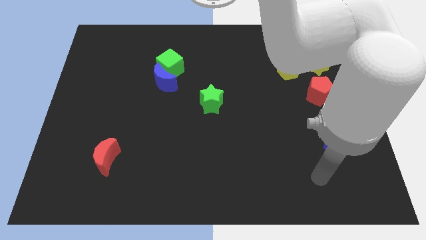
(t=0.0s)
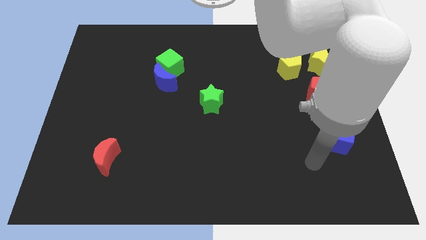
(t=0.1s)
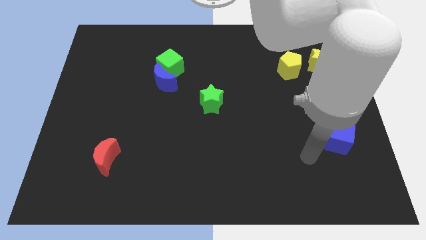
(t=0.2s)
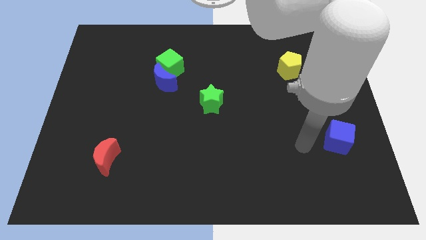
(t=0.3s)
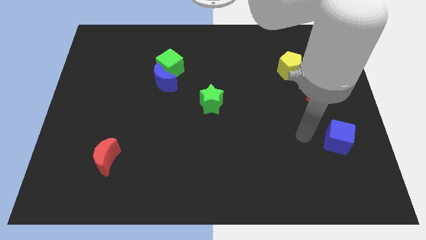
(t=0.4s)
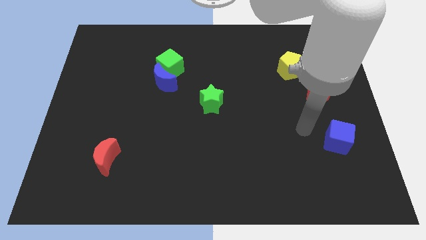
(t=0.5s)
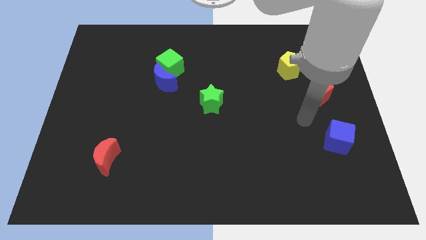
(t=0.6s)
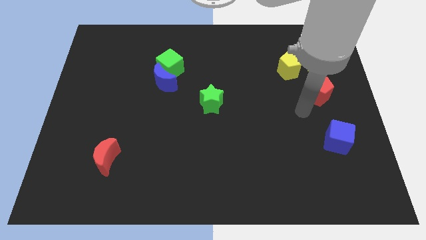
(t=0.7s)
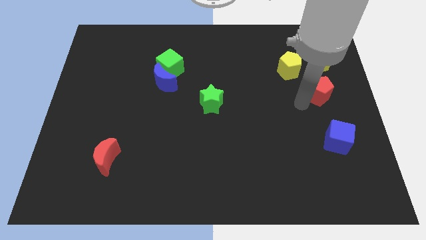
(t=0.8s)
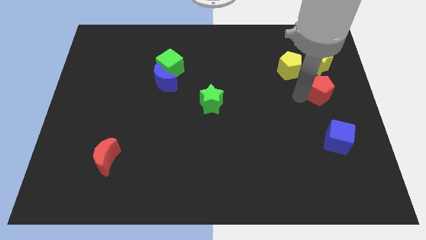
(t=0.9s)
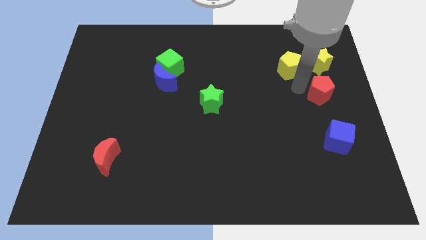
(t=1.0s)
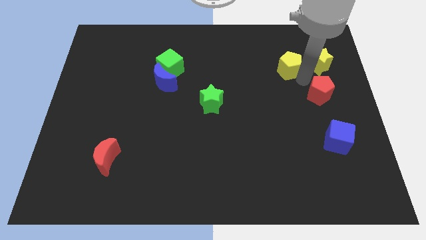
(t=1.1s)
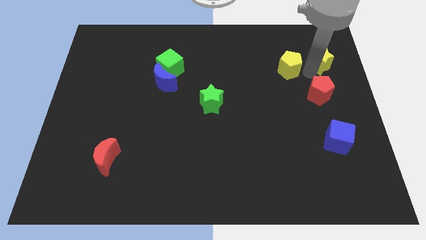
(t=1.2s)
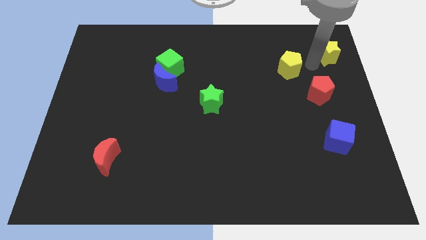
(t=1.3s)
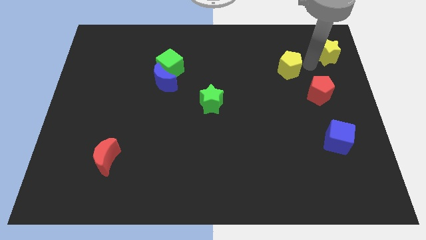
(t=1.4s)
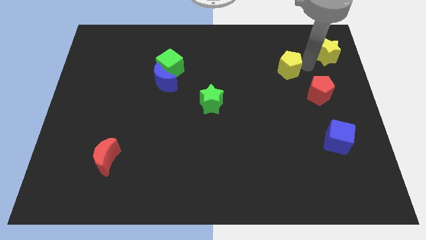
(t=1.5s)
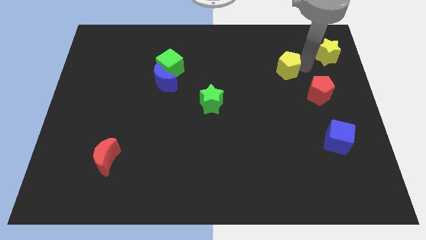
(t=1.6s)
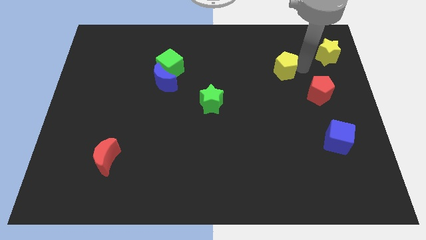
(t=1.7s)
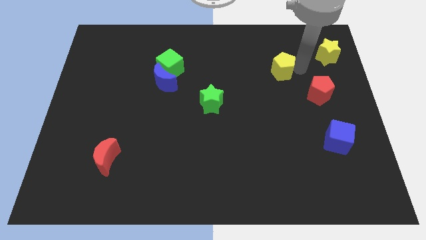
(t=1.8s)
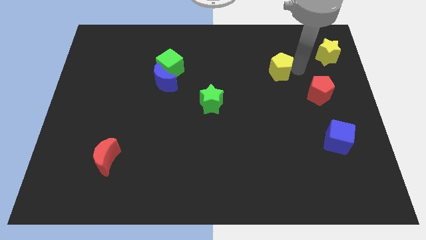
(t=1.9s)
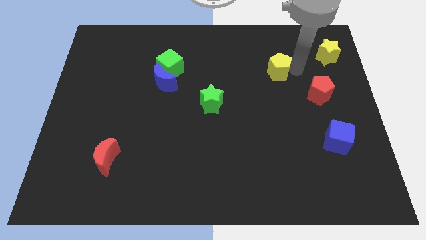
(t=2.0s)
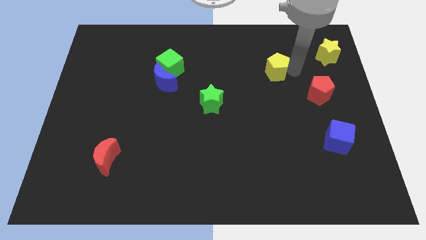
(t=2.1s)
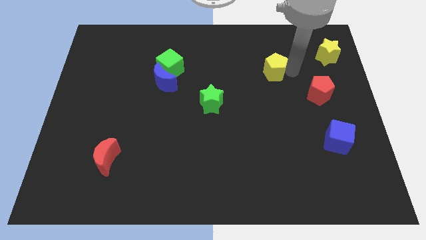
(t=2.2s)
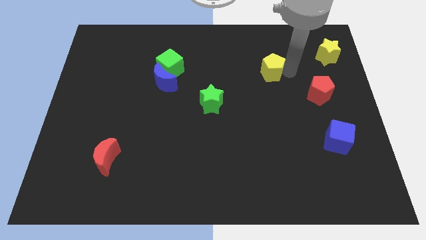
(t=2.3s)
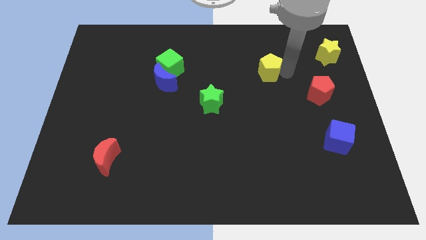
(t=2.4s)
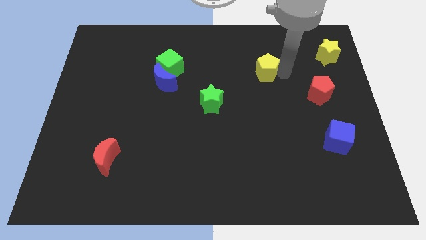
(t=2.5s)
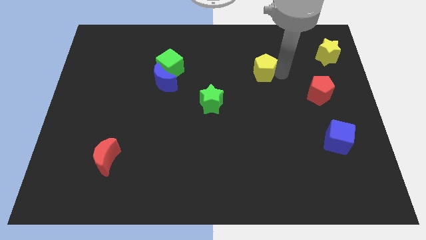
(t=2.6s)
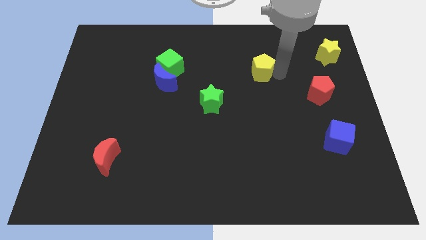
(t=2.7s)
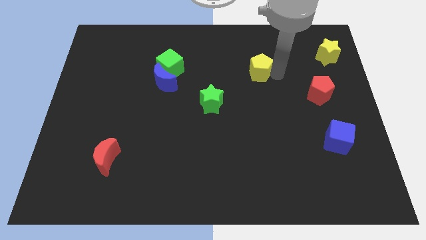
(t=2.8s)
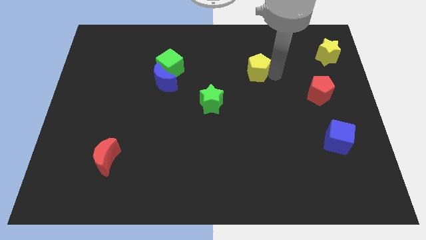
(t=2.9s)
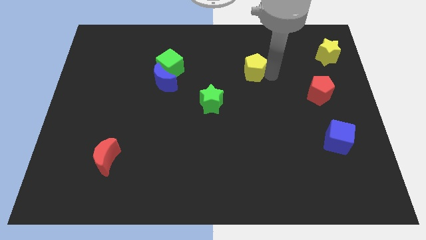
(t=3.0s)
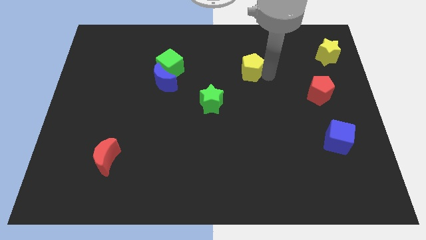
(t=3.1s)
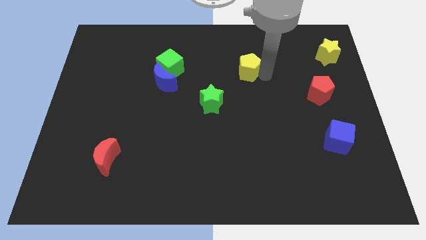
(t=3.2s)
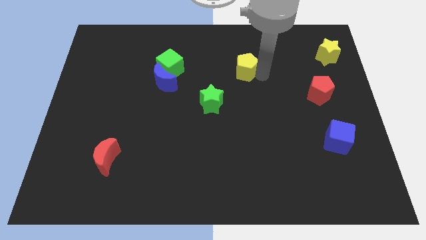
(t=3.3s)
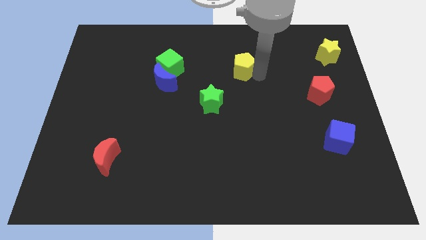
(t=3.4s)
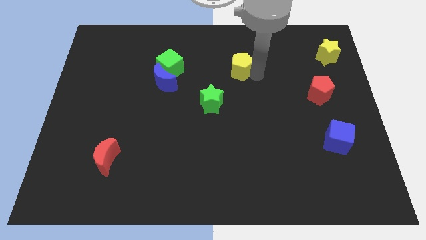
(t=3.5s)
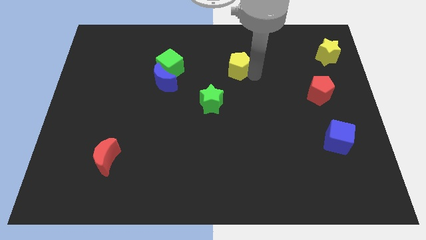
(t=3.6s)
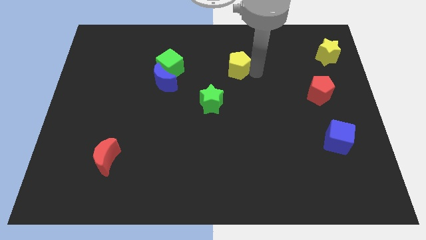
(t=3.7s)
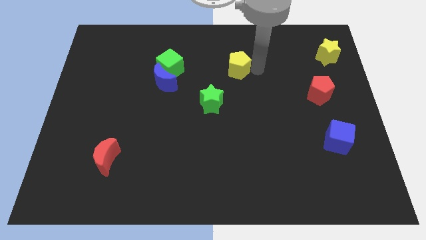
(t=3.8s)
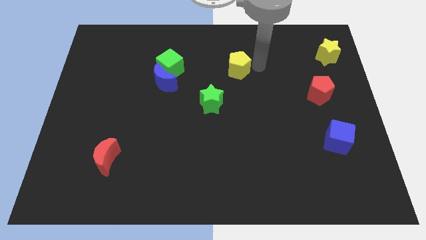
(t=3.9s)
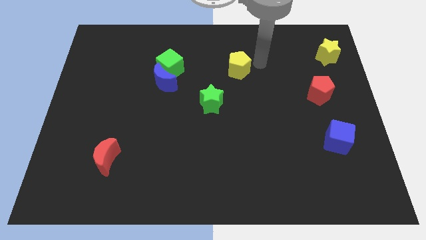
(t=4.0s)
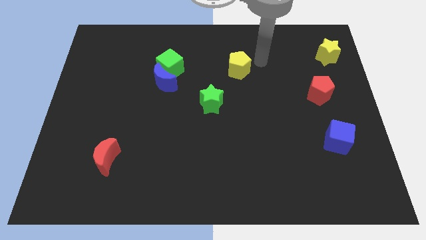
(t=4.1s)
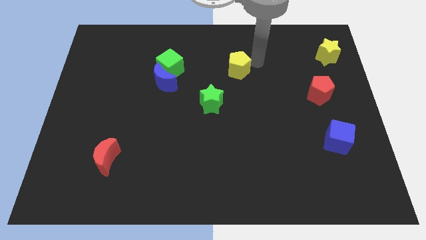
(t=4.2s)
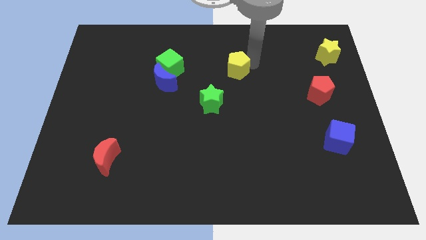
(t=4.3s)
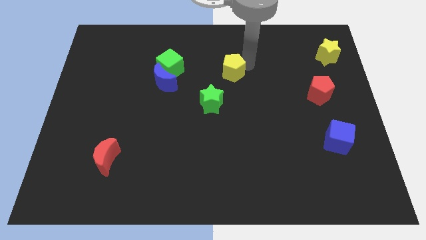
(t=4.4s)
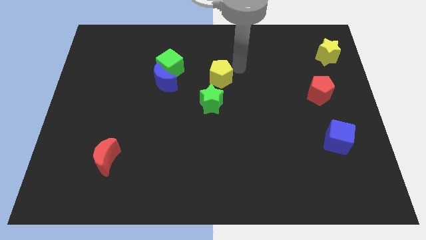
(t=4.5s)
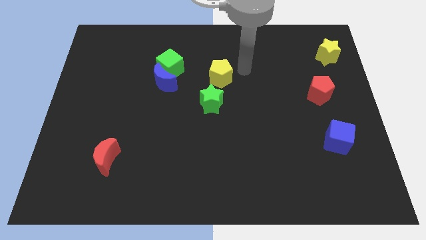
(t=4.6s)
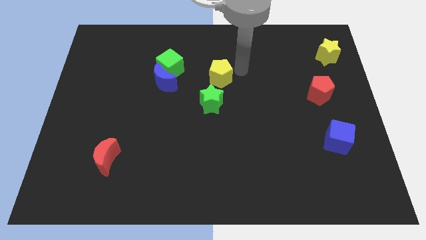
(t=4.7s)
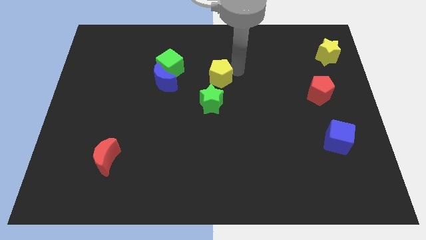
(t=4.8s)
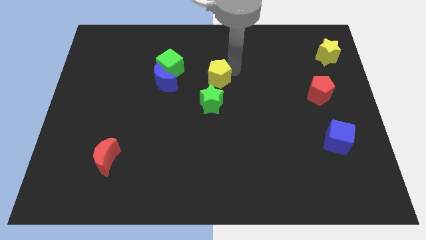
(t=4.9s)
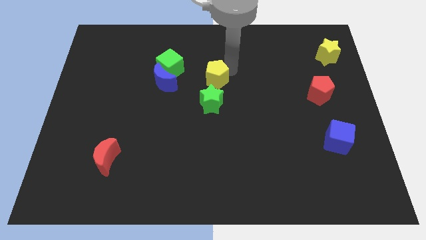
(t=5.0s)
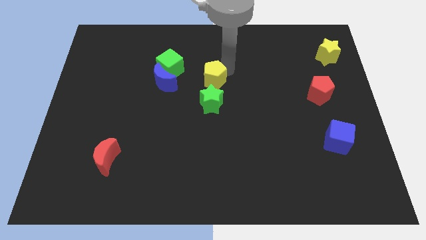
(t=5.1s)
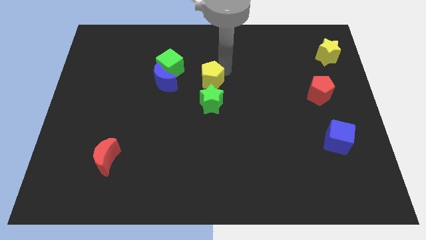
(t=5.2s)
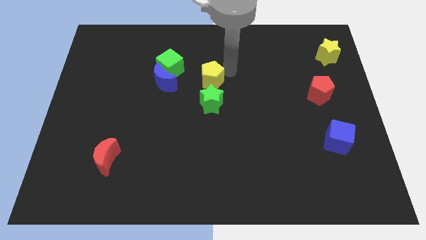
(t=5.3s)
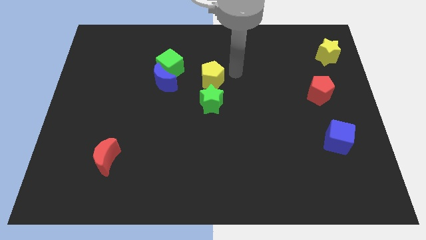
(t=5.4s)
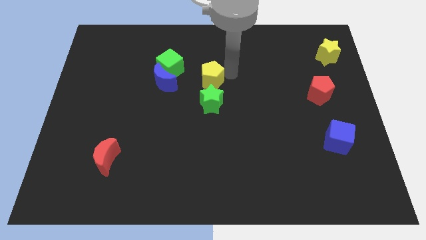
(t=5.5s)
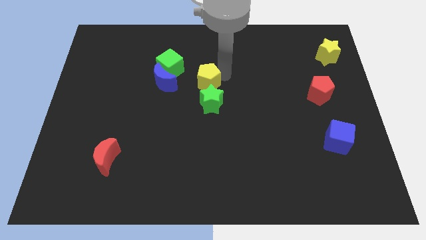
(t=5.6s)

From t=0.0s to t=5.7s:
push the yellow pentagon to the bottom right side of the green cube

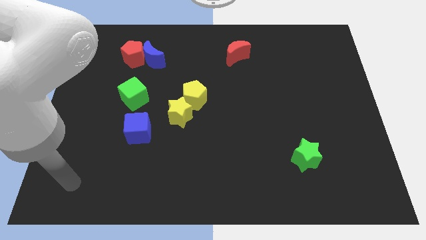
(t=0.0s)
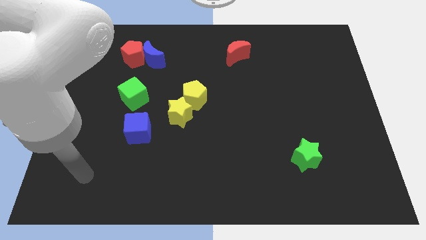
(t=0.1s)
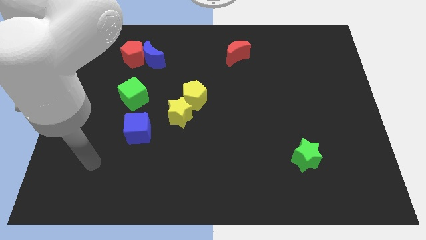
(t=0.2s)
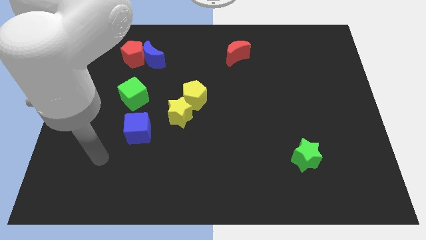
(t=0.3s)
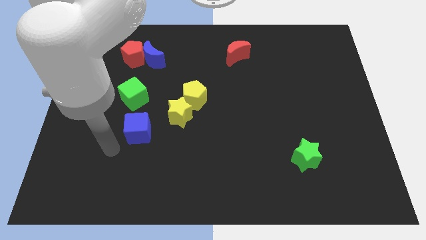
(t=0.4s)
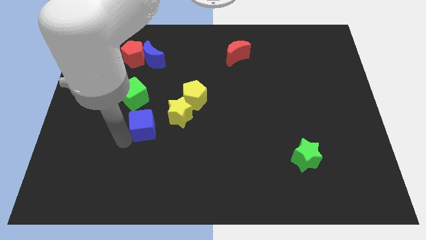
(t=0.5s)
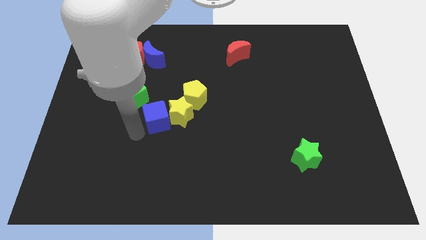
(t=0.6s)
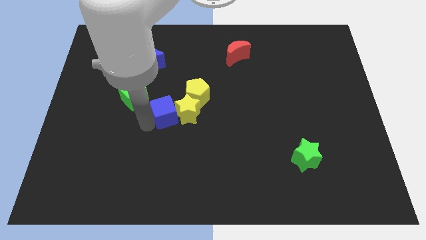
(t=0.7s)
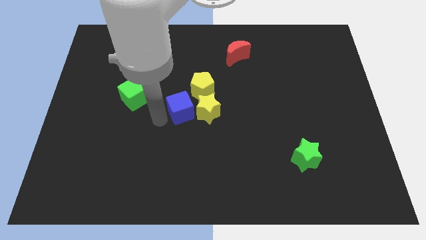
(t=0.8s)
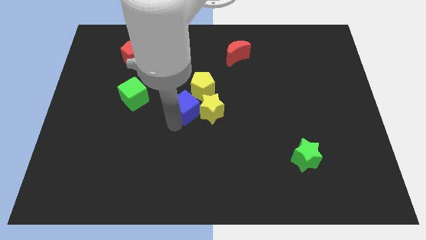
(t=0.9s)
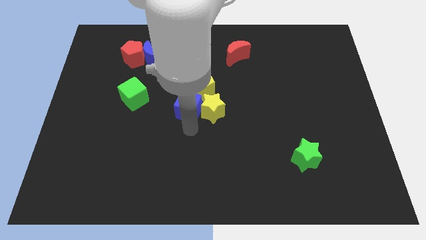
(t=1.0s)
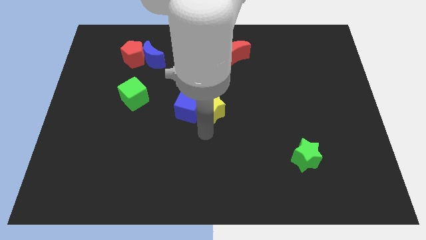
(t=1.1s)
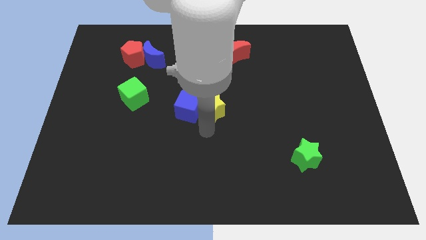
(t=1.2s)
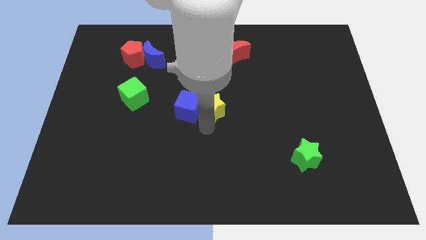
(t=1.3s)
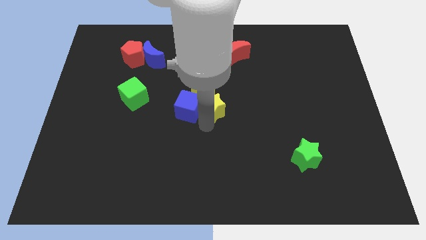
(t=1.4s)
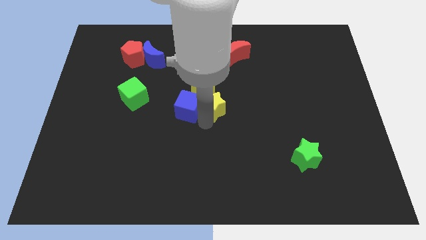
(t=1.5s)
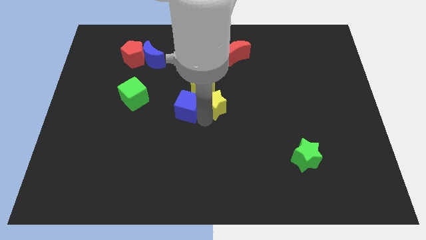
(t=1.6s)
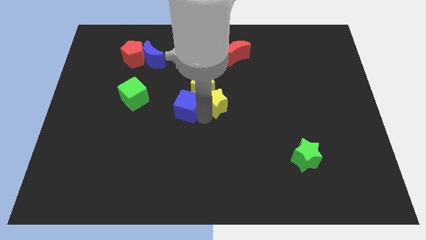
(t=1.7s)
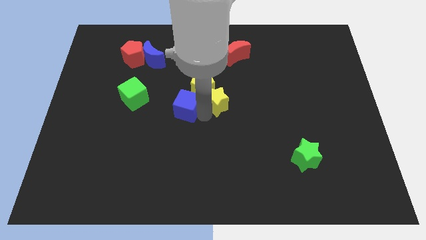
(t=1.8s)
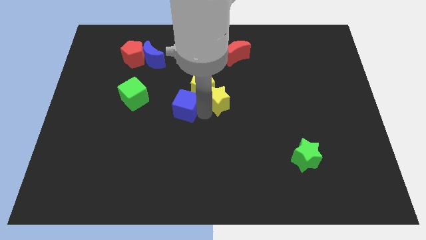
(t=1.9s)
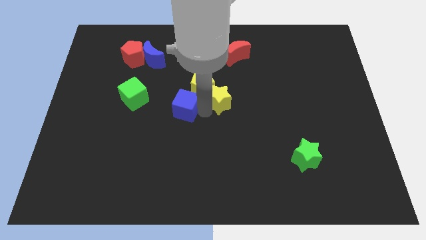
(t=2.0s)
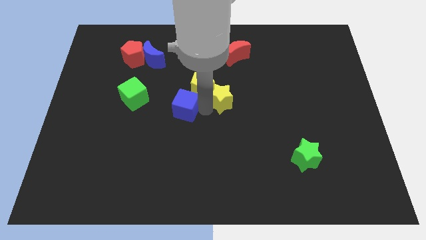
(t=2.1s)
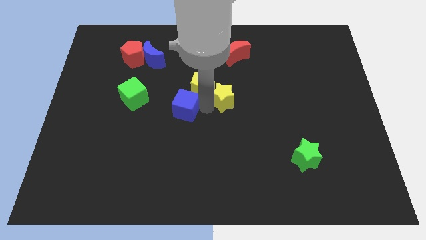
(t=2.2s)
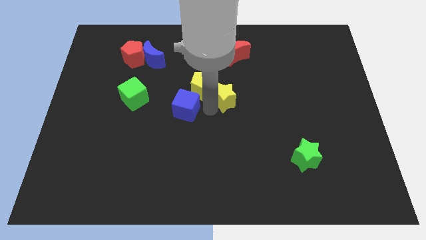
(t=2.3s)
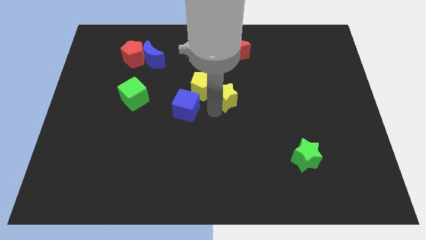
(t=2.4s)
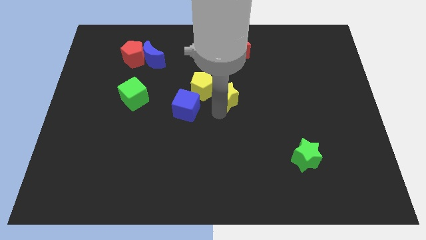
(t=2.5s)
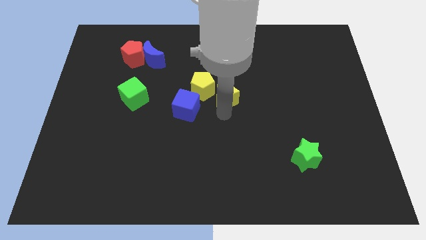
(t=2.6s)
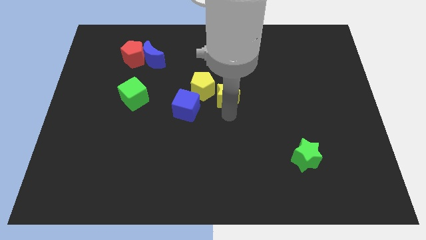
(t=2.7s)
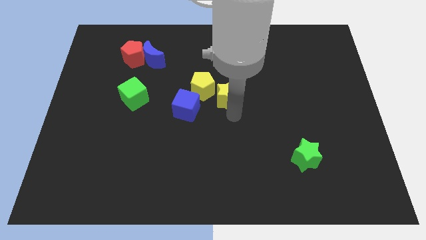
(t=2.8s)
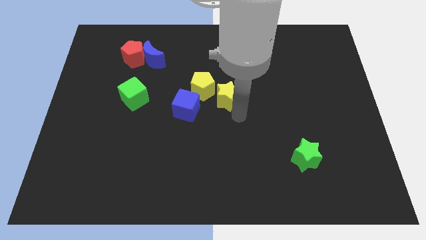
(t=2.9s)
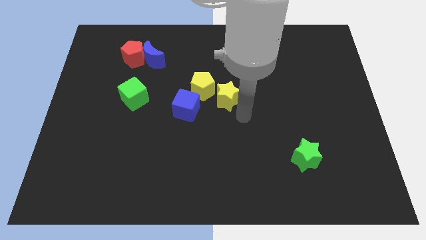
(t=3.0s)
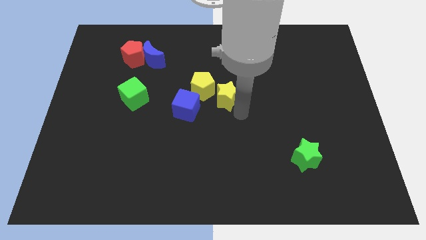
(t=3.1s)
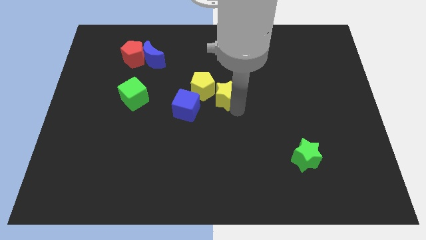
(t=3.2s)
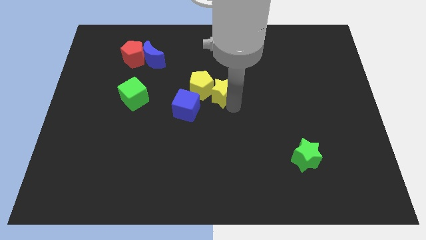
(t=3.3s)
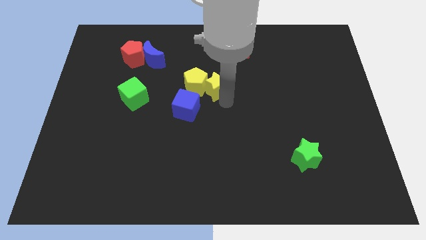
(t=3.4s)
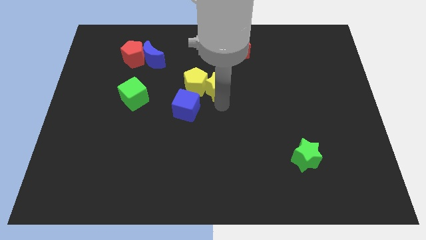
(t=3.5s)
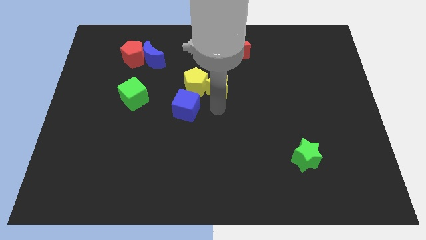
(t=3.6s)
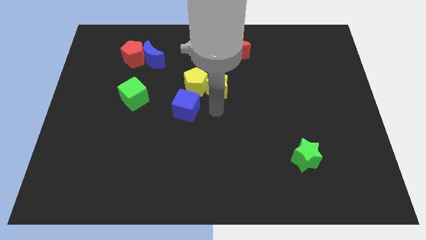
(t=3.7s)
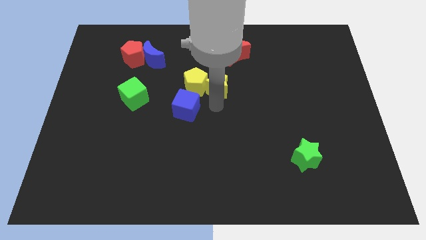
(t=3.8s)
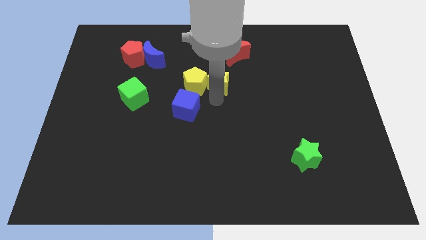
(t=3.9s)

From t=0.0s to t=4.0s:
slide the yellow star to the bottom left side of the red moon
